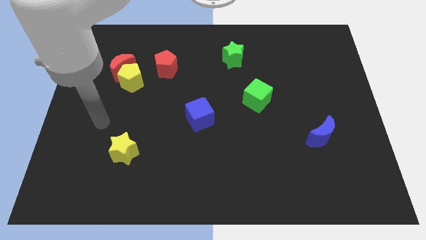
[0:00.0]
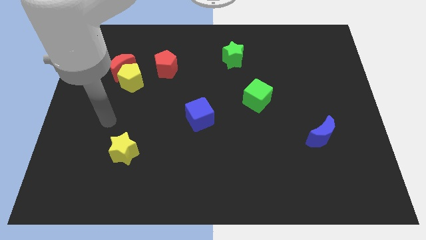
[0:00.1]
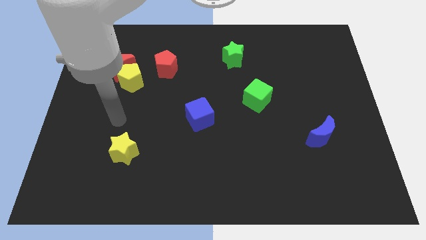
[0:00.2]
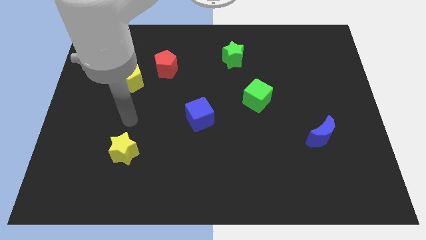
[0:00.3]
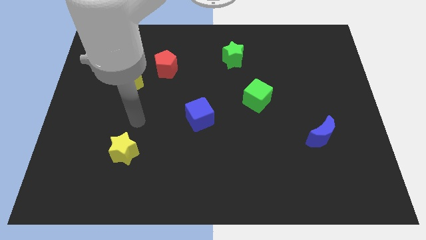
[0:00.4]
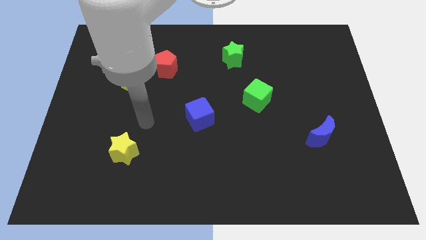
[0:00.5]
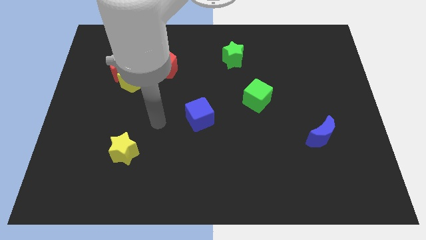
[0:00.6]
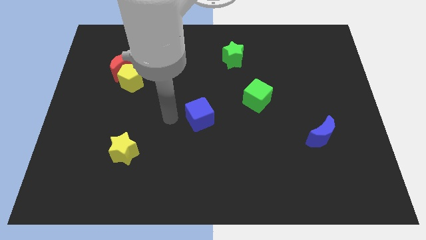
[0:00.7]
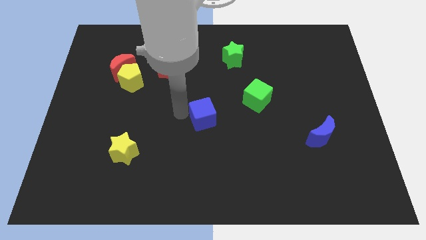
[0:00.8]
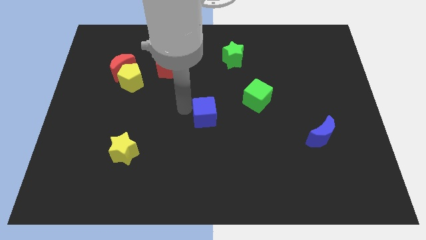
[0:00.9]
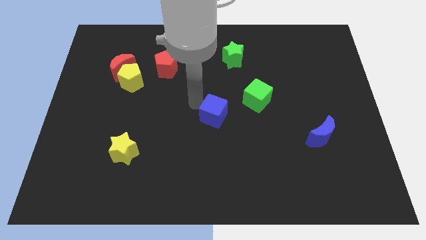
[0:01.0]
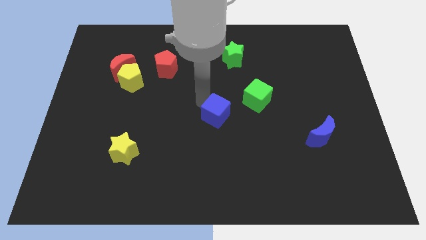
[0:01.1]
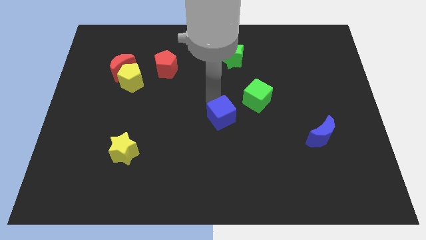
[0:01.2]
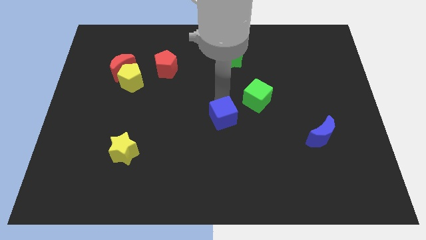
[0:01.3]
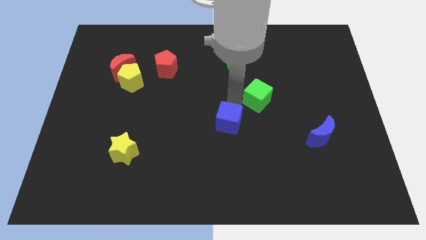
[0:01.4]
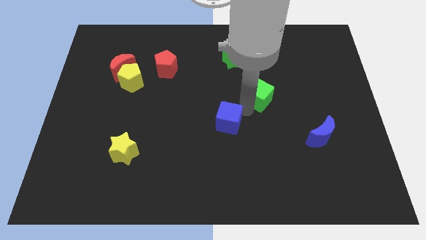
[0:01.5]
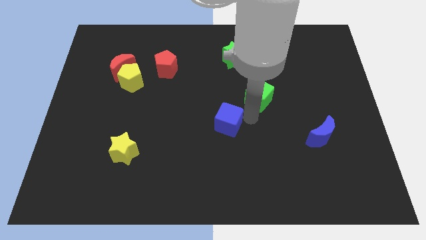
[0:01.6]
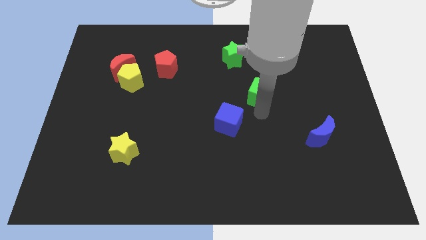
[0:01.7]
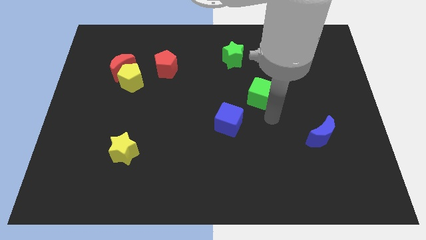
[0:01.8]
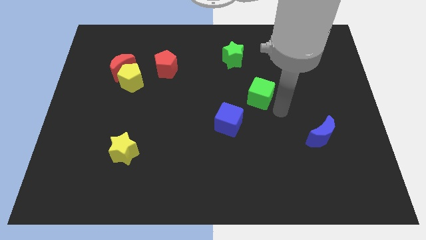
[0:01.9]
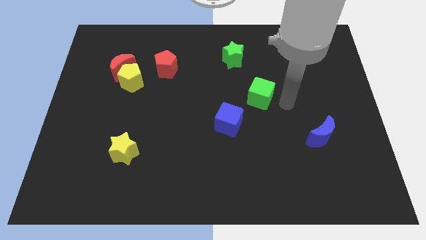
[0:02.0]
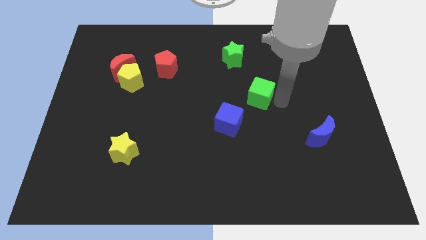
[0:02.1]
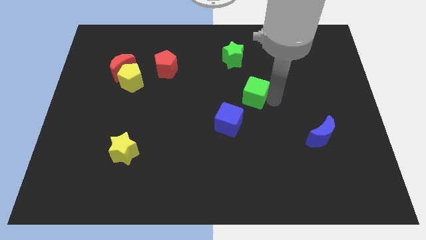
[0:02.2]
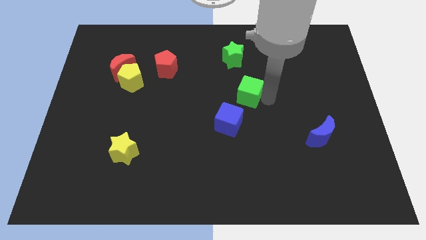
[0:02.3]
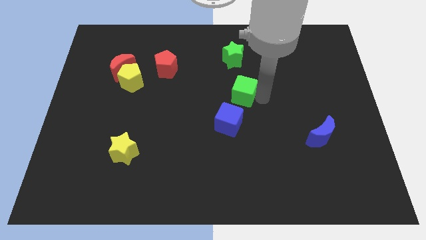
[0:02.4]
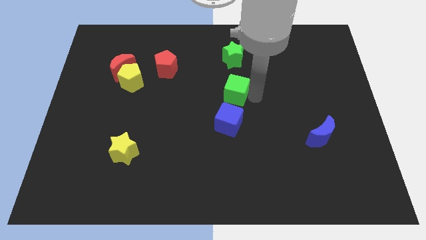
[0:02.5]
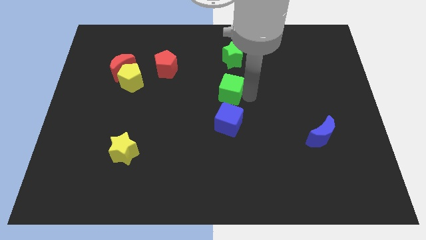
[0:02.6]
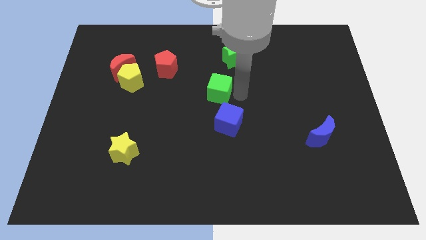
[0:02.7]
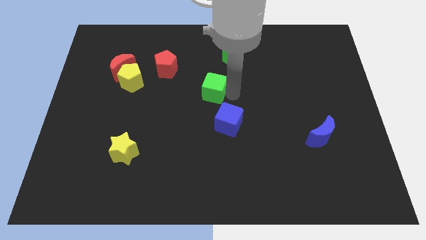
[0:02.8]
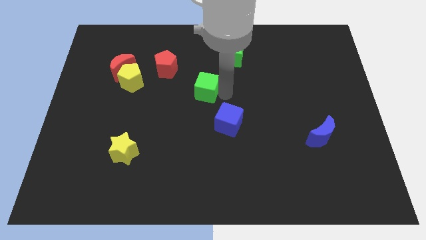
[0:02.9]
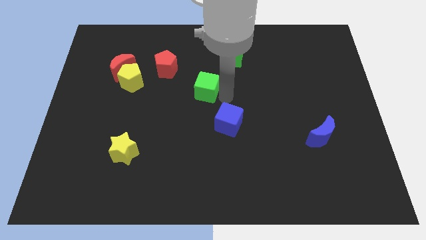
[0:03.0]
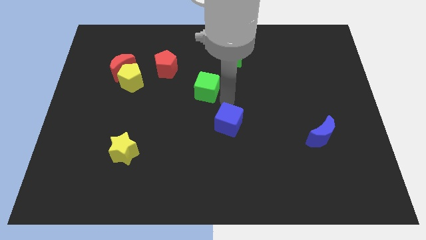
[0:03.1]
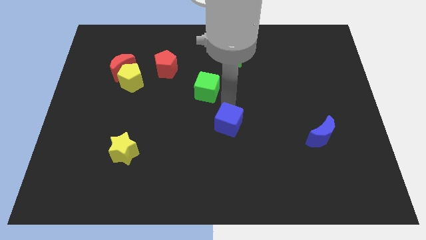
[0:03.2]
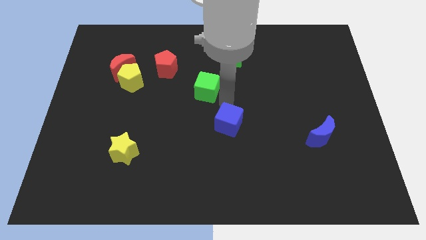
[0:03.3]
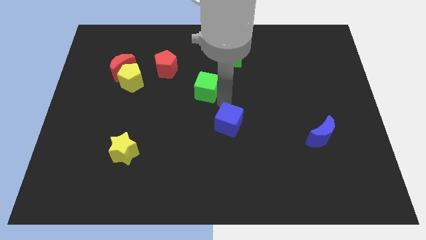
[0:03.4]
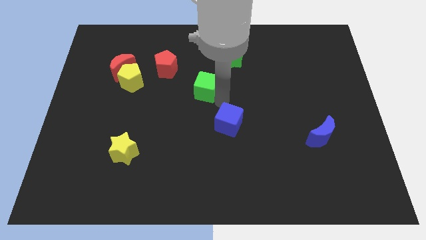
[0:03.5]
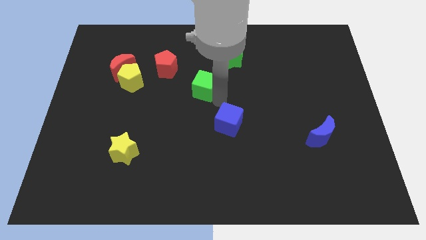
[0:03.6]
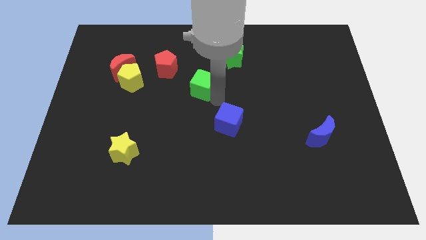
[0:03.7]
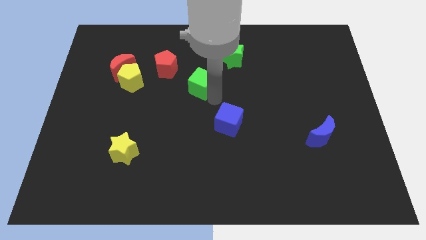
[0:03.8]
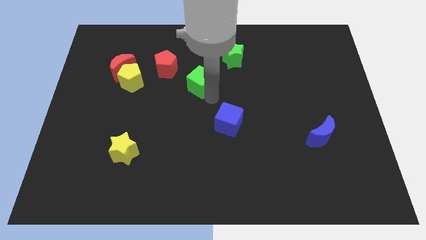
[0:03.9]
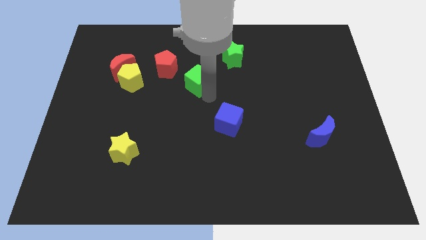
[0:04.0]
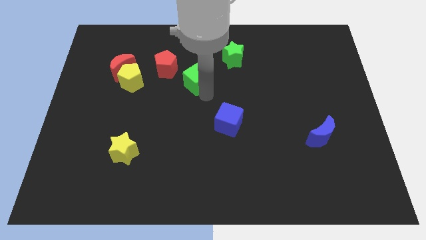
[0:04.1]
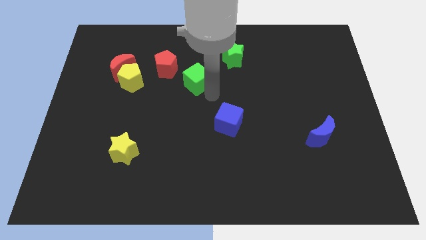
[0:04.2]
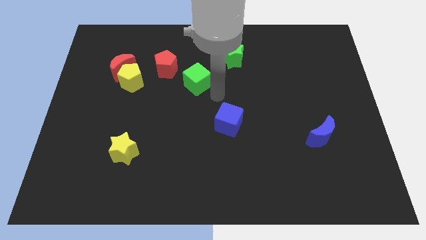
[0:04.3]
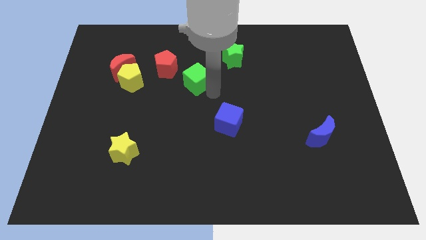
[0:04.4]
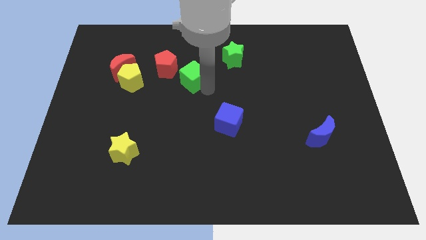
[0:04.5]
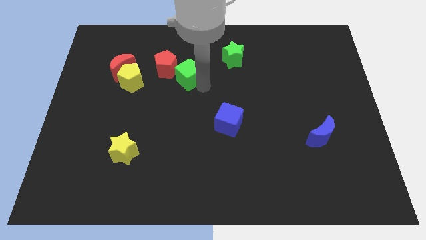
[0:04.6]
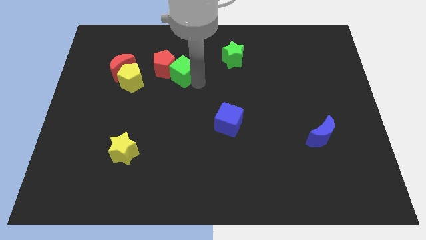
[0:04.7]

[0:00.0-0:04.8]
slide the green cube to the red pentagon

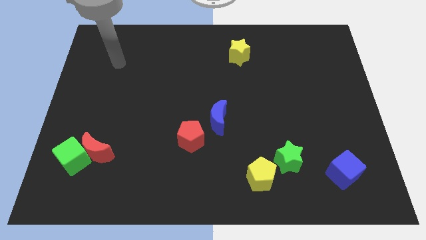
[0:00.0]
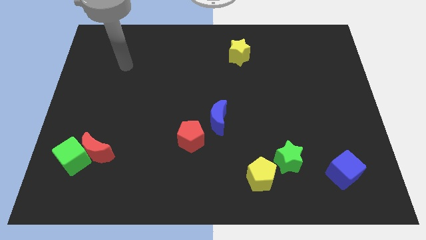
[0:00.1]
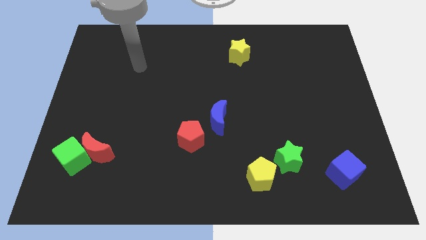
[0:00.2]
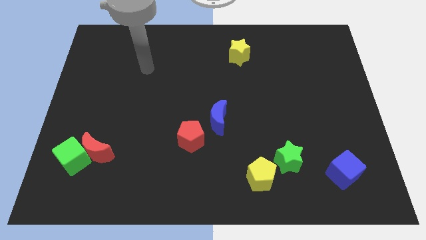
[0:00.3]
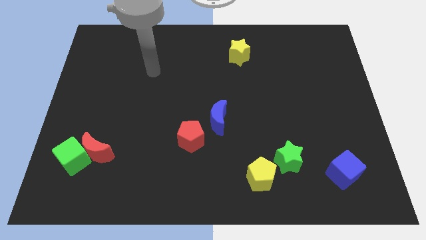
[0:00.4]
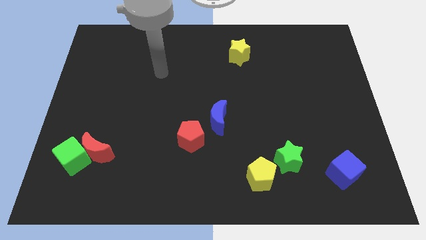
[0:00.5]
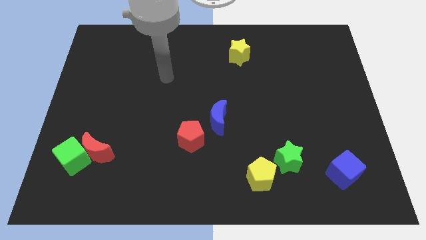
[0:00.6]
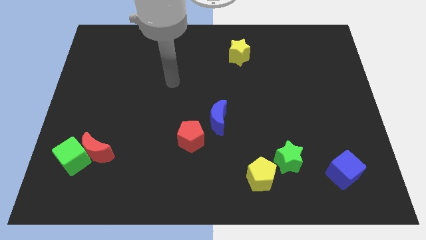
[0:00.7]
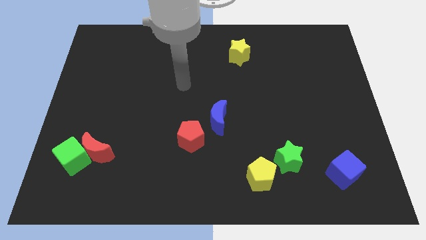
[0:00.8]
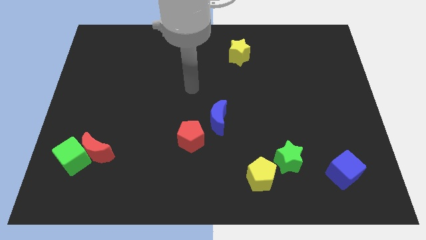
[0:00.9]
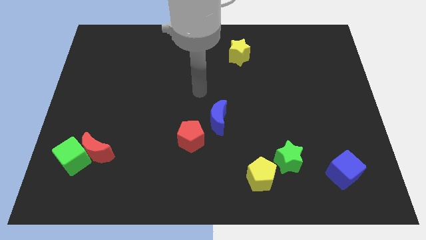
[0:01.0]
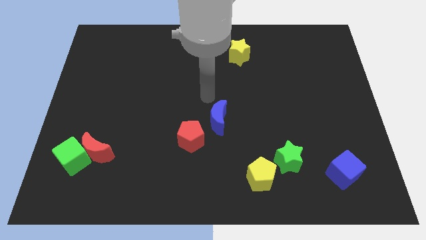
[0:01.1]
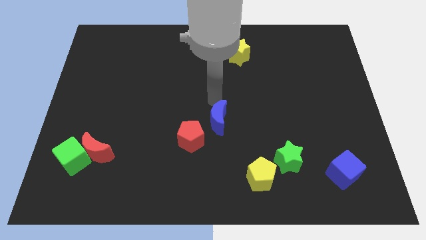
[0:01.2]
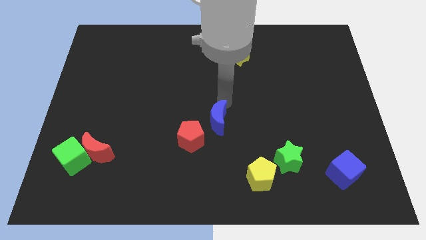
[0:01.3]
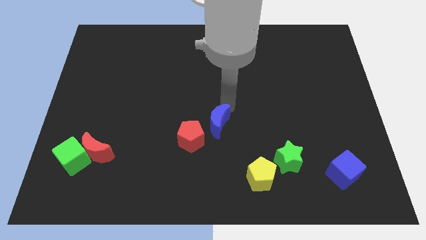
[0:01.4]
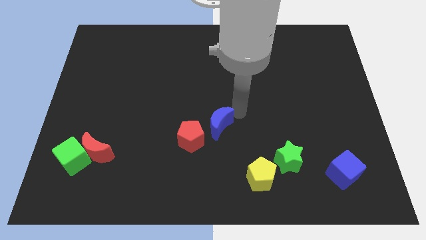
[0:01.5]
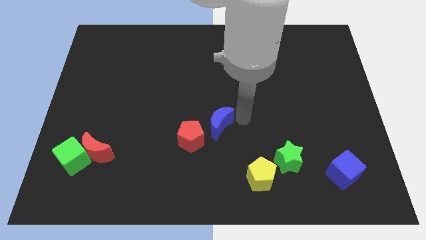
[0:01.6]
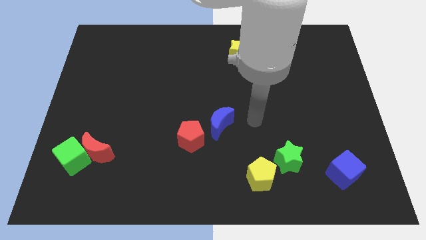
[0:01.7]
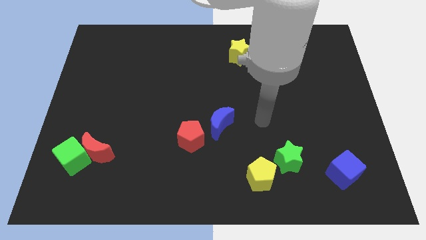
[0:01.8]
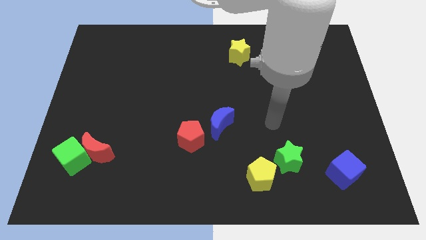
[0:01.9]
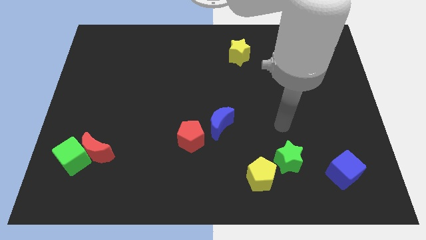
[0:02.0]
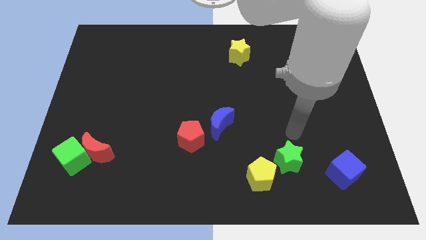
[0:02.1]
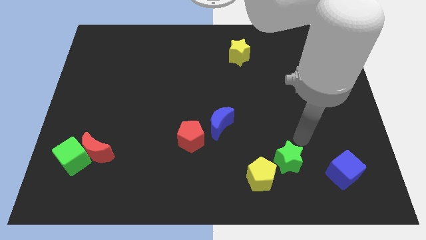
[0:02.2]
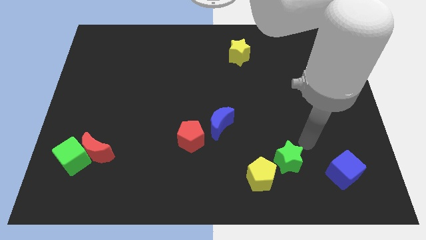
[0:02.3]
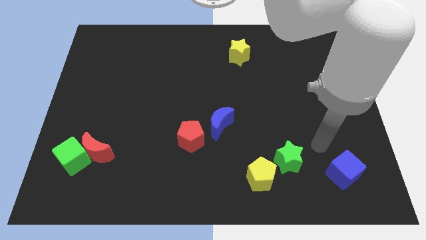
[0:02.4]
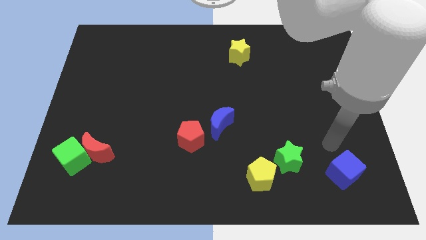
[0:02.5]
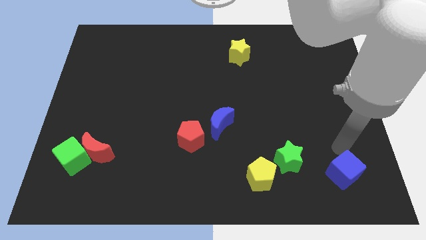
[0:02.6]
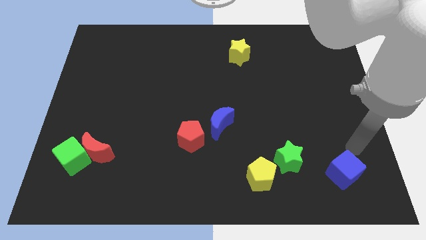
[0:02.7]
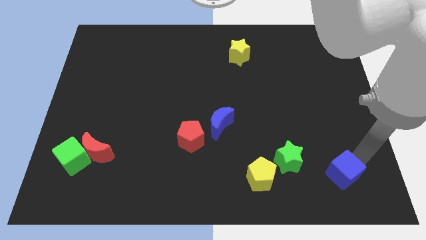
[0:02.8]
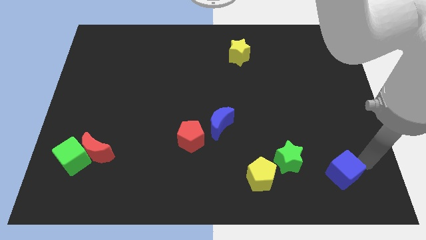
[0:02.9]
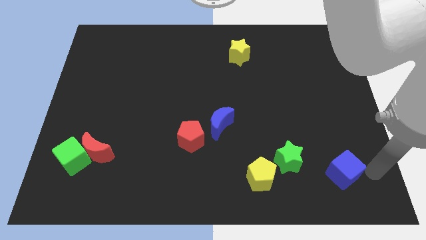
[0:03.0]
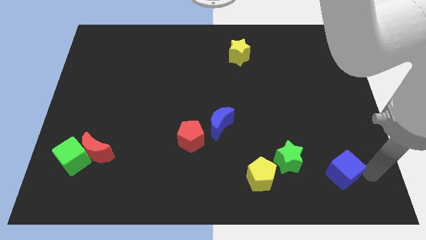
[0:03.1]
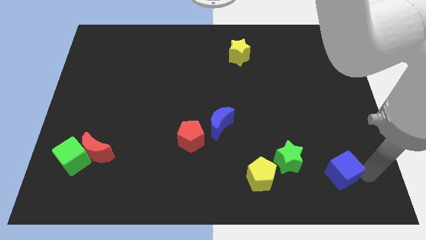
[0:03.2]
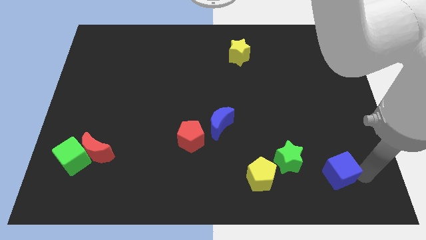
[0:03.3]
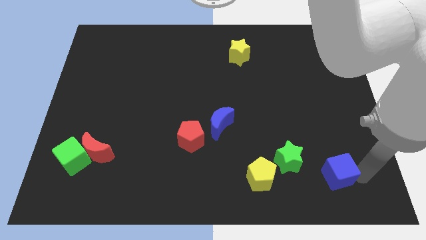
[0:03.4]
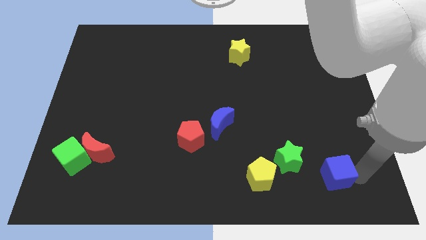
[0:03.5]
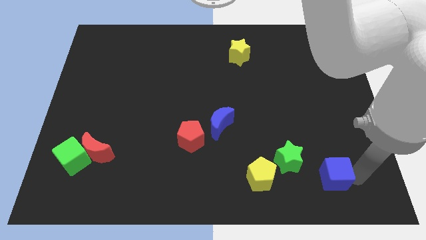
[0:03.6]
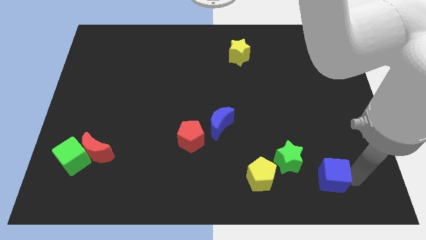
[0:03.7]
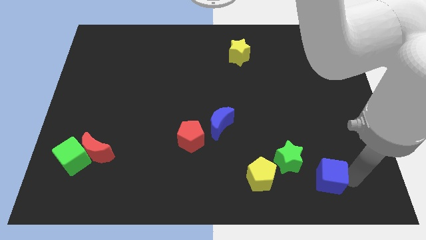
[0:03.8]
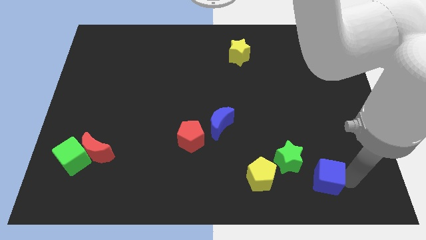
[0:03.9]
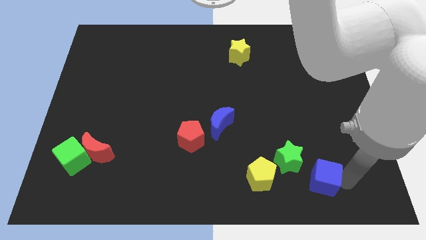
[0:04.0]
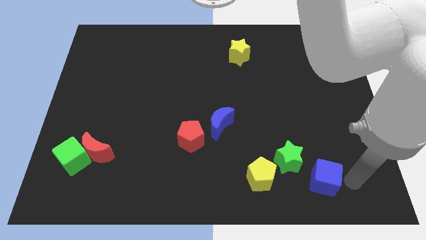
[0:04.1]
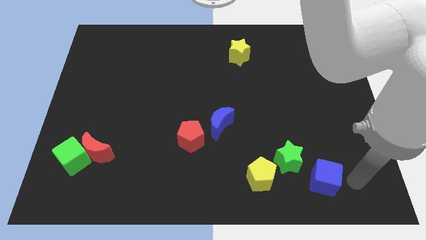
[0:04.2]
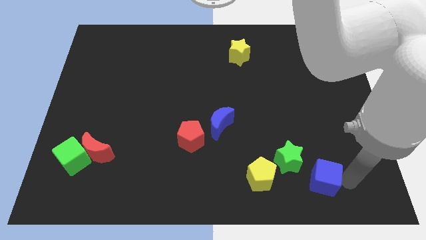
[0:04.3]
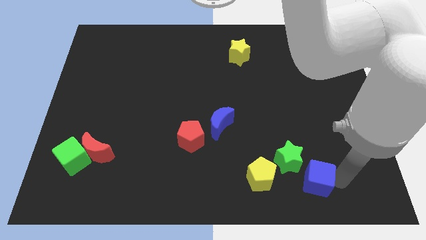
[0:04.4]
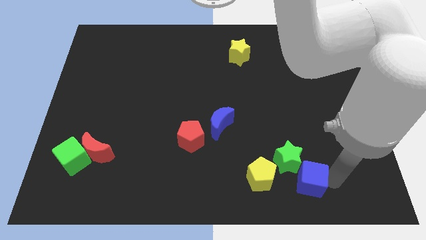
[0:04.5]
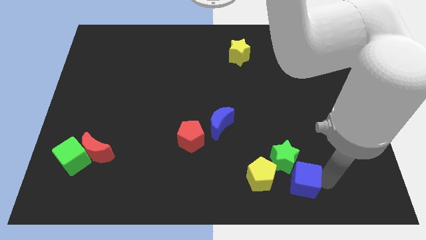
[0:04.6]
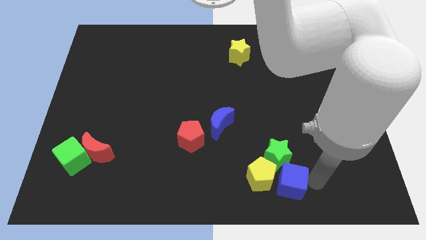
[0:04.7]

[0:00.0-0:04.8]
move the blue cube to the yellow pentagon
